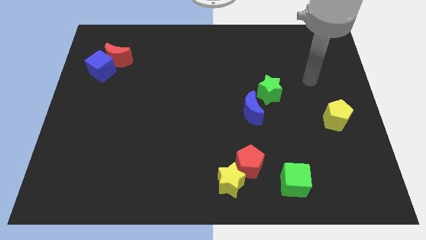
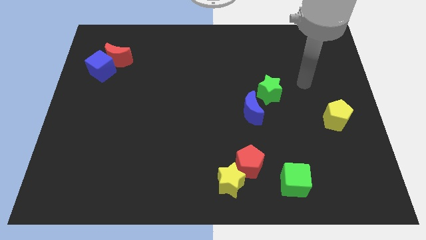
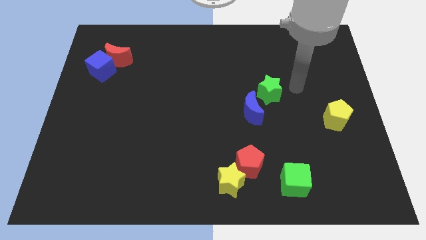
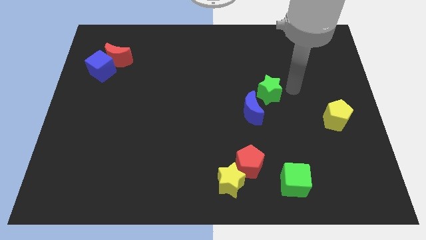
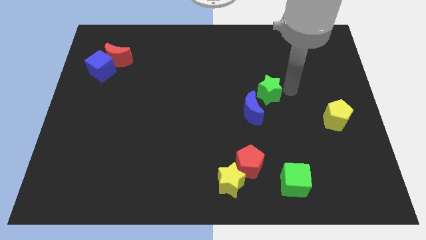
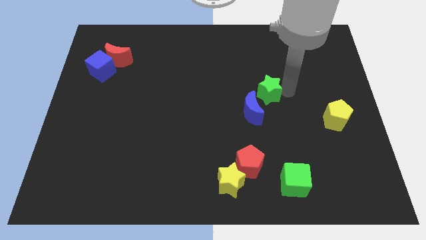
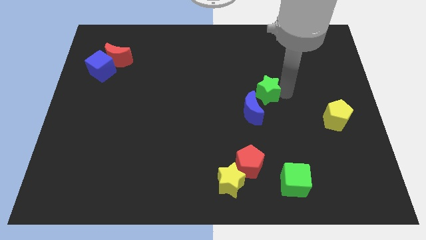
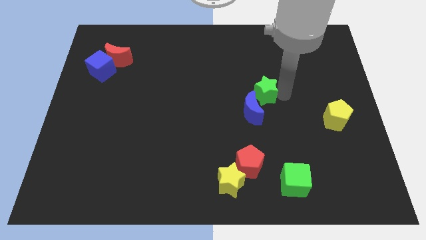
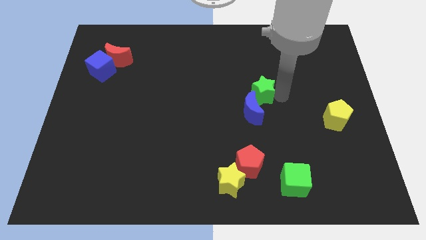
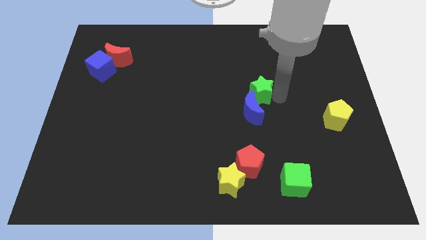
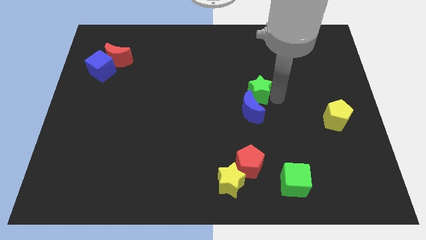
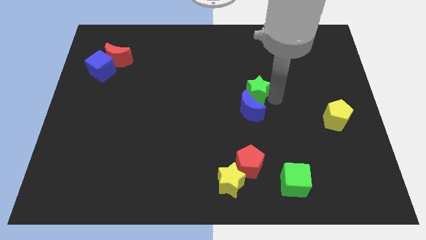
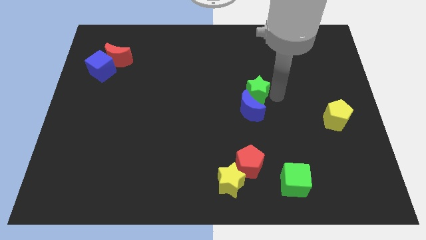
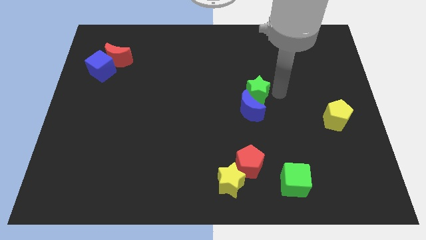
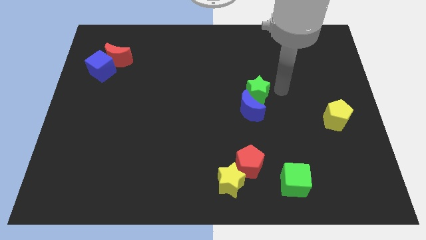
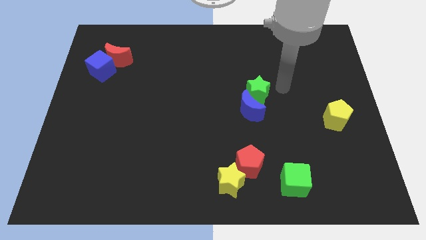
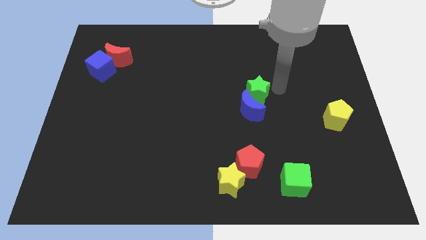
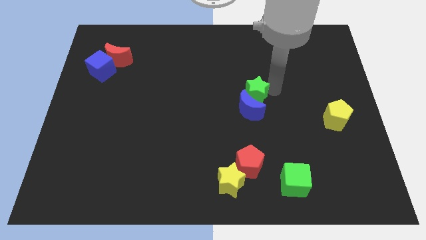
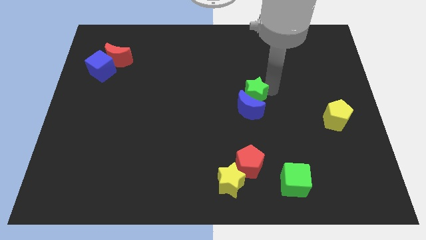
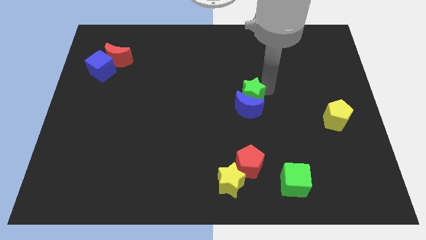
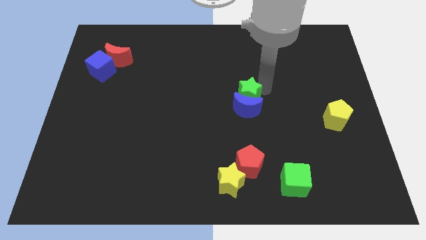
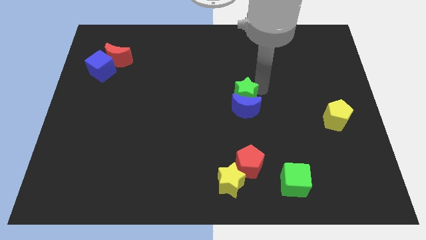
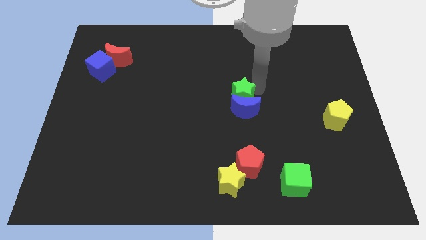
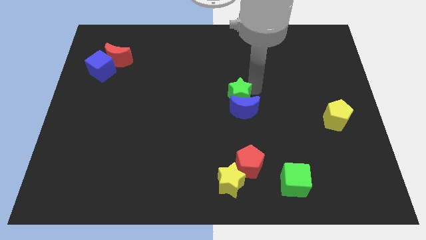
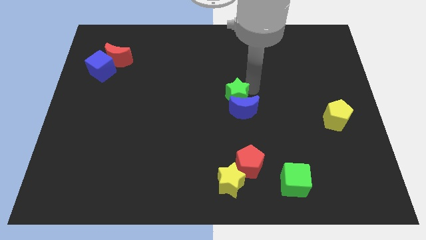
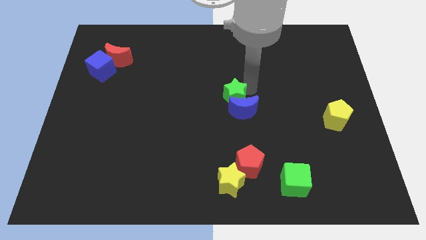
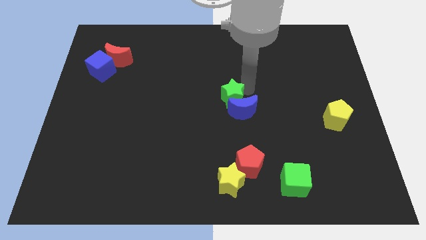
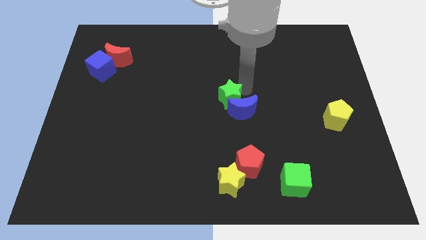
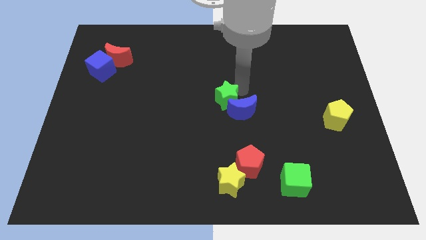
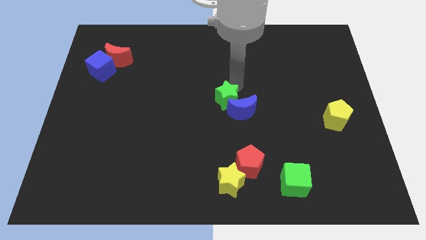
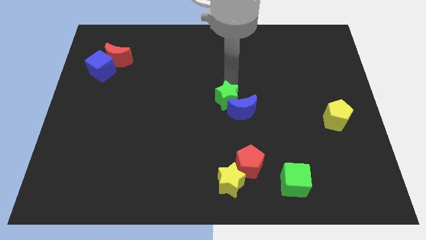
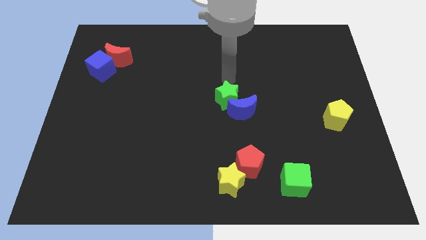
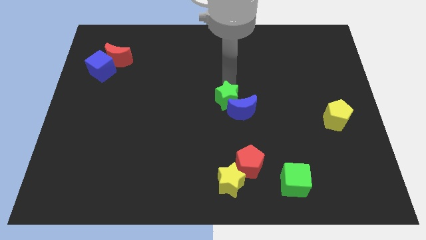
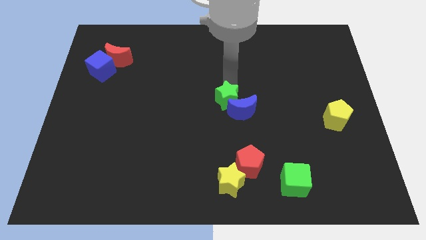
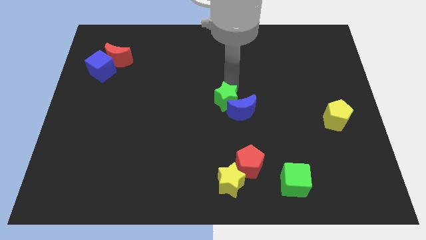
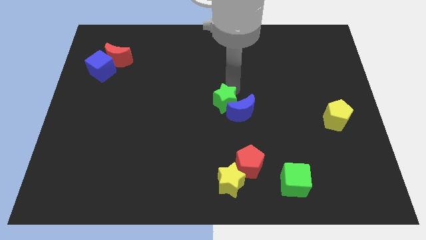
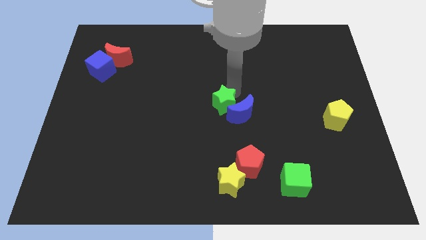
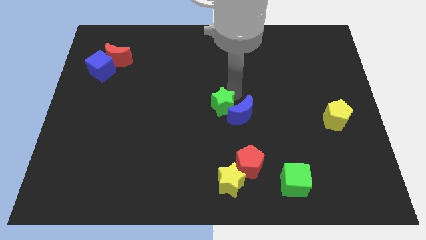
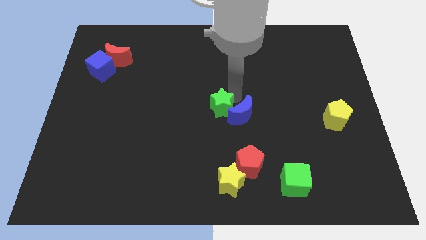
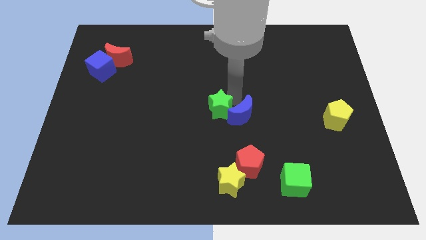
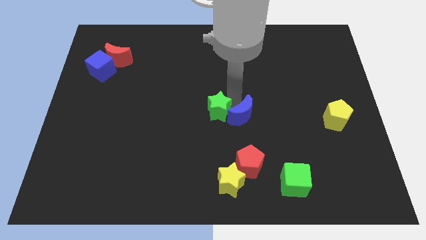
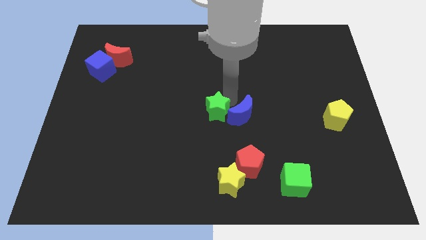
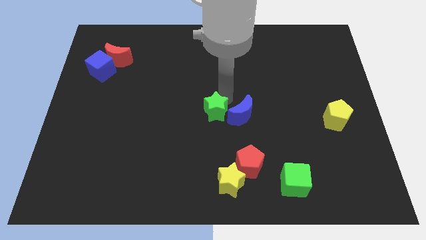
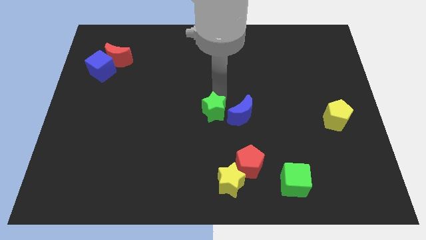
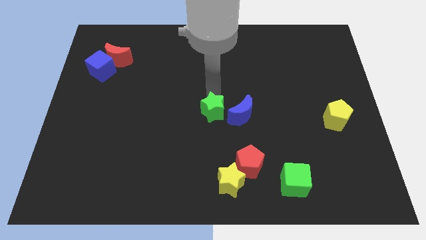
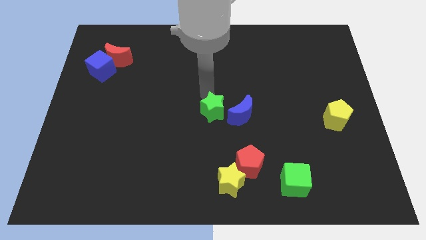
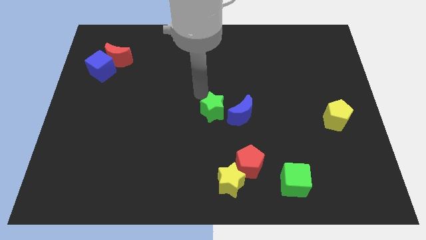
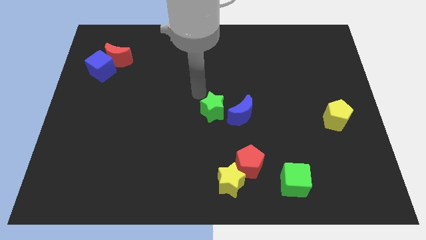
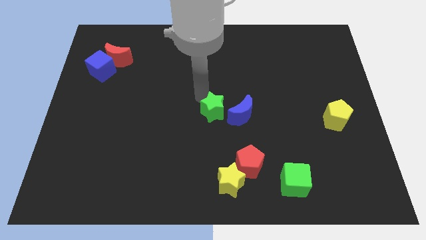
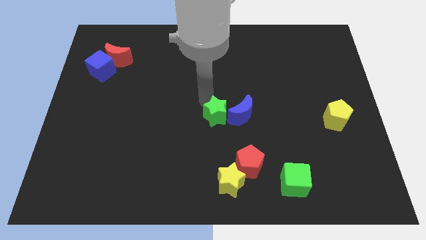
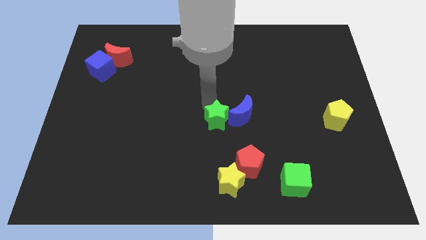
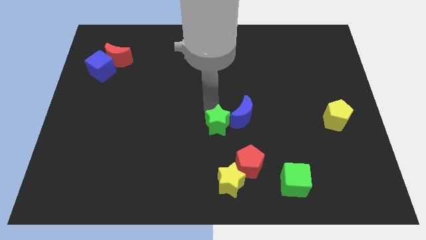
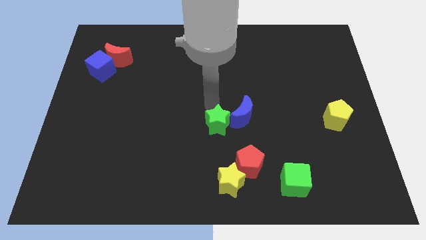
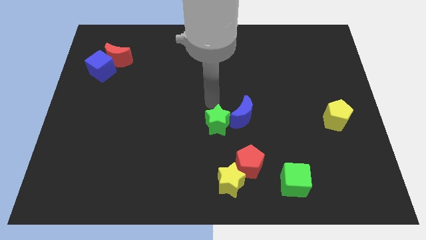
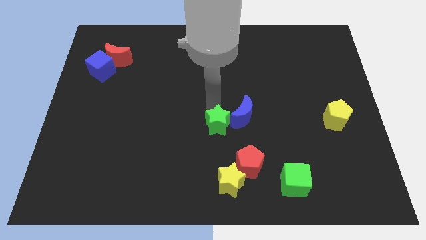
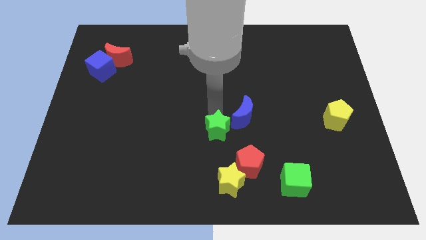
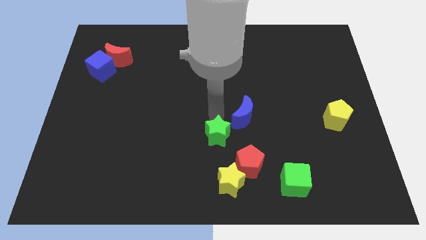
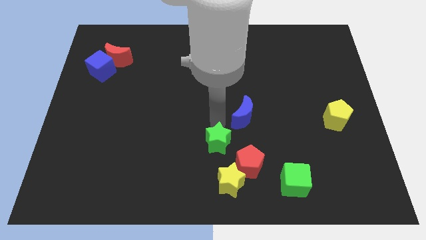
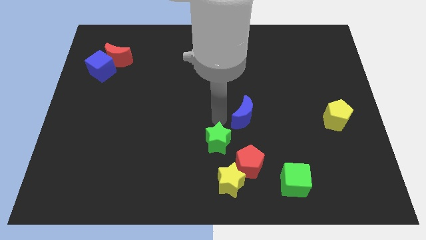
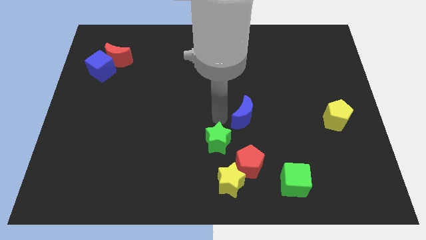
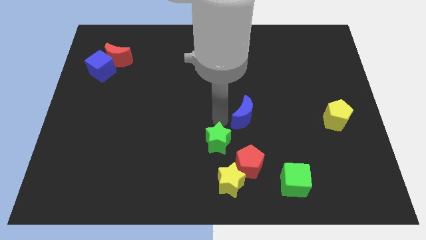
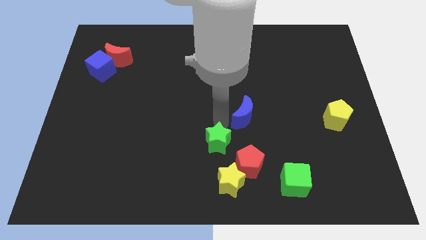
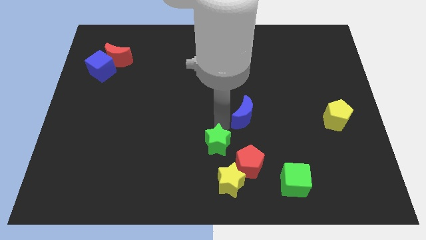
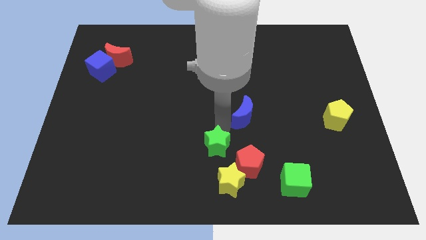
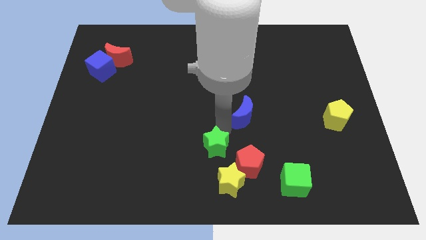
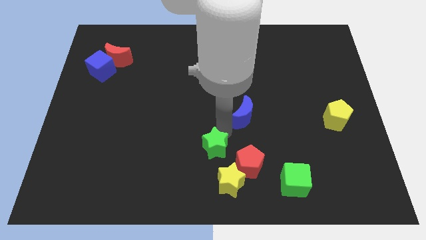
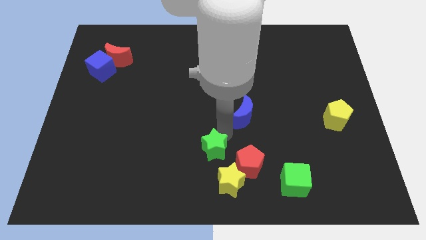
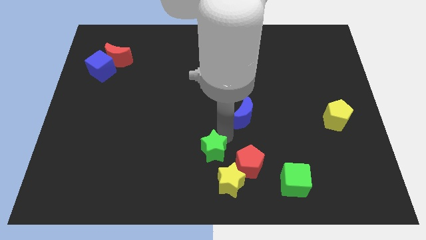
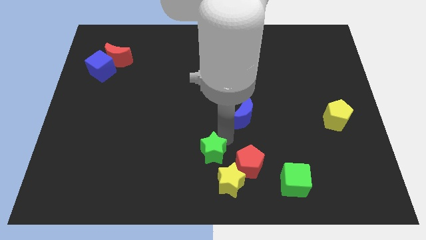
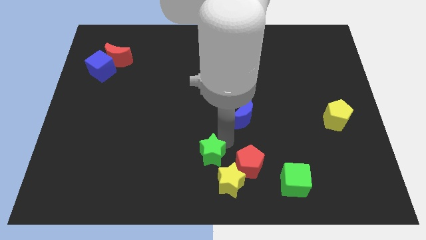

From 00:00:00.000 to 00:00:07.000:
put the green star to the bottom side
